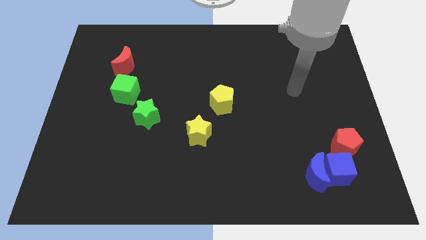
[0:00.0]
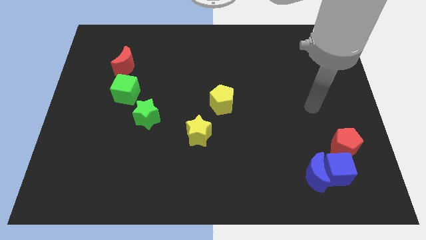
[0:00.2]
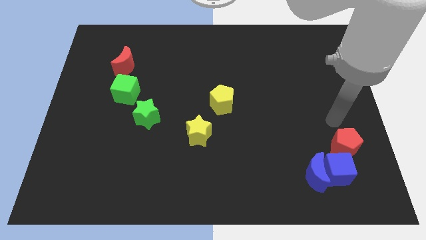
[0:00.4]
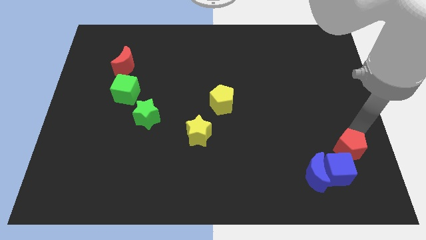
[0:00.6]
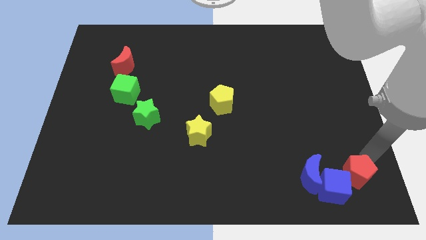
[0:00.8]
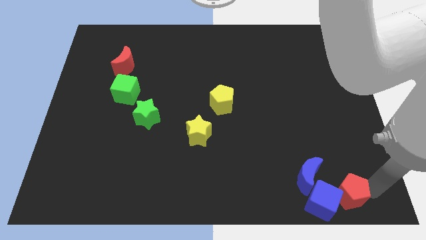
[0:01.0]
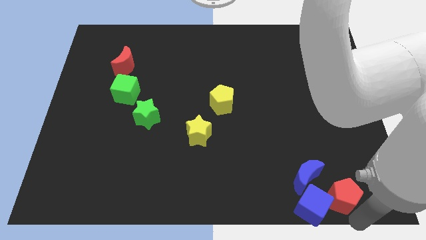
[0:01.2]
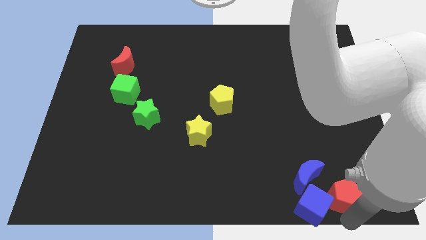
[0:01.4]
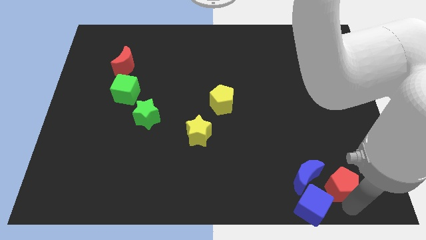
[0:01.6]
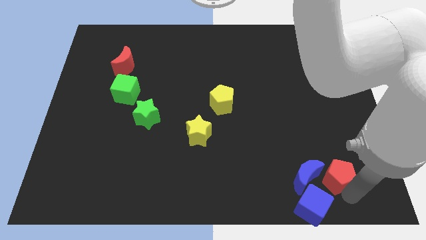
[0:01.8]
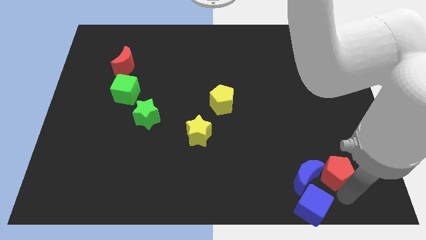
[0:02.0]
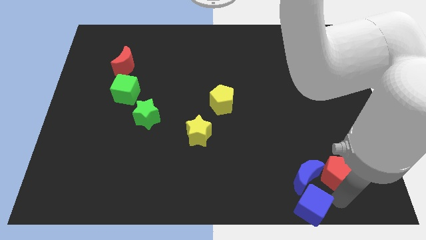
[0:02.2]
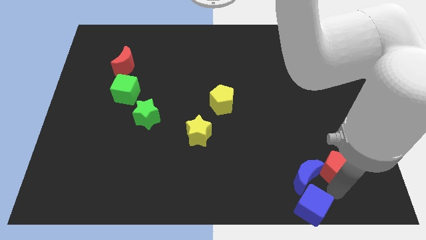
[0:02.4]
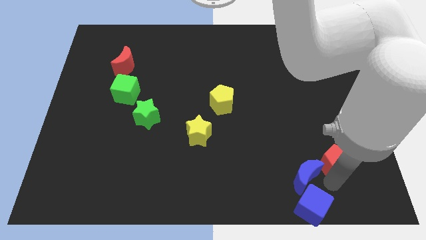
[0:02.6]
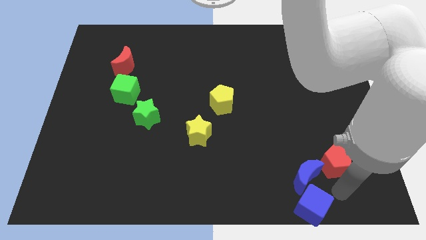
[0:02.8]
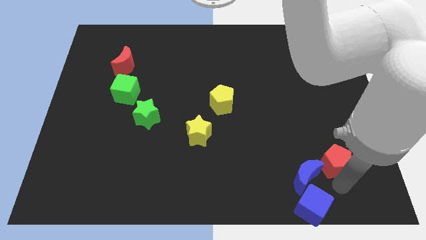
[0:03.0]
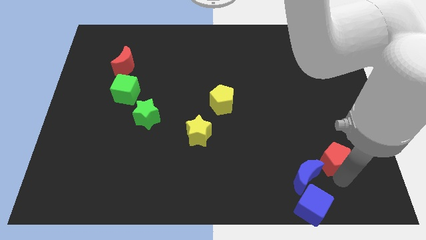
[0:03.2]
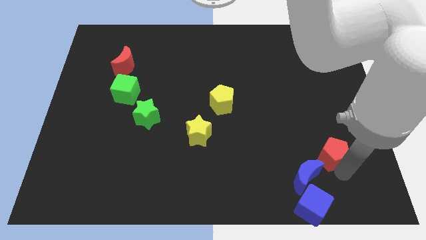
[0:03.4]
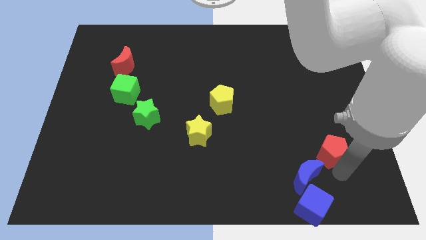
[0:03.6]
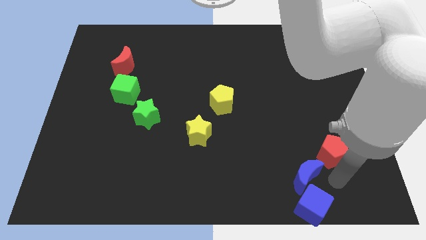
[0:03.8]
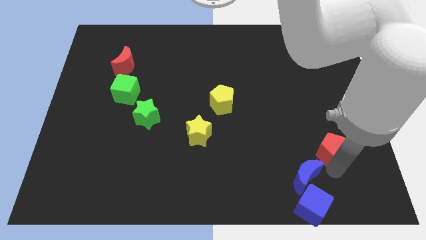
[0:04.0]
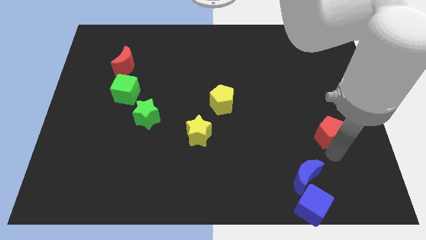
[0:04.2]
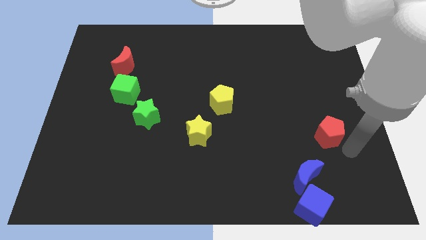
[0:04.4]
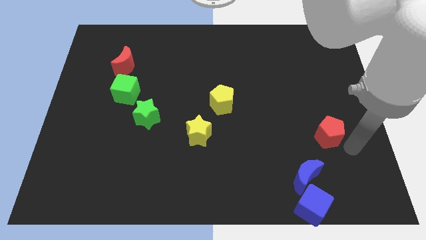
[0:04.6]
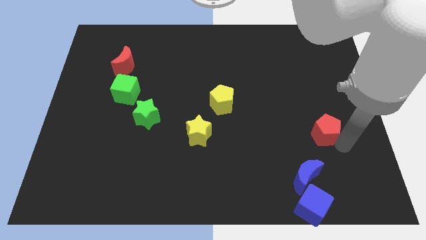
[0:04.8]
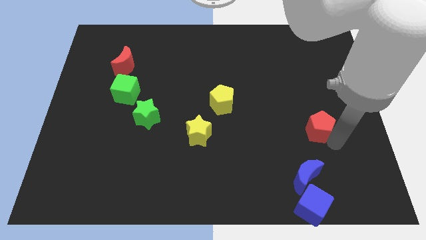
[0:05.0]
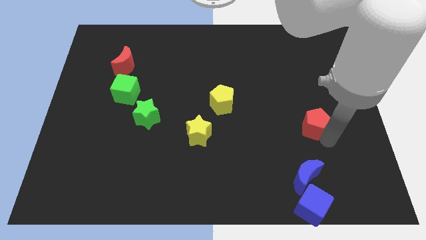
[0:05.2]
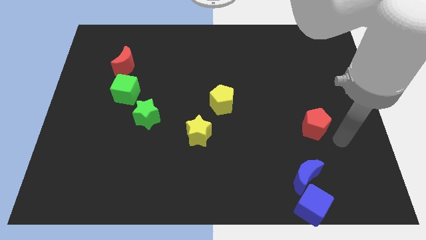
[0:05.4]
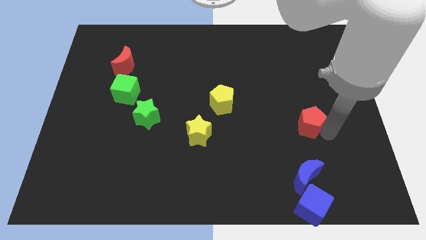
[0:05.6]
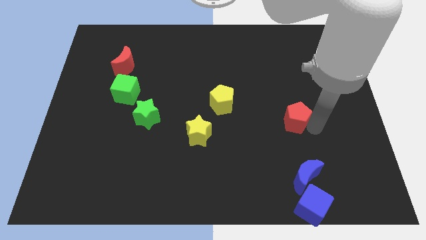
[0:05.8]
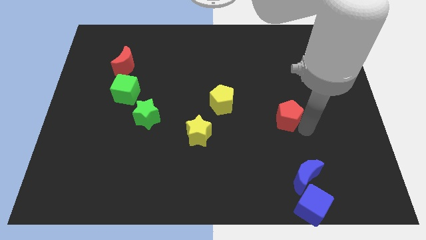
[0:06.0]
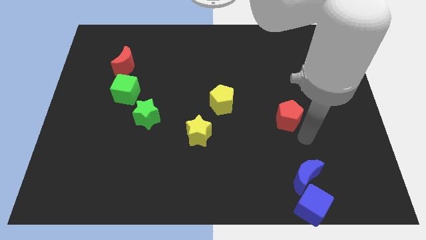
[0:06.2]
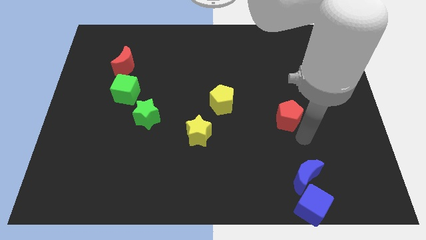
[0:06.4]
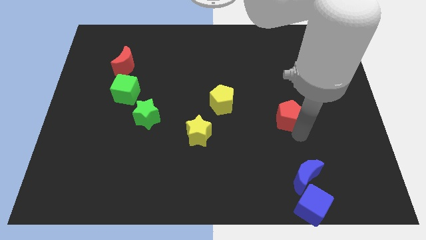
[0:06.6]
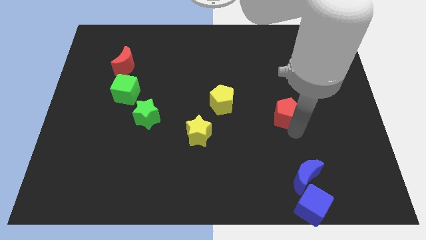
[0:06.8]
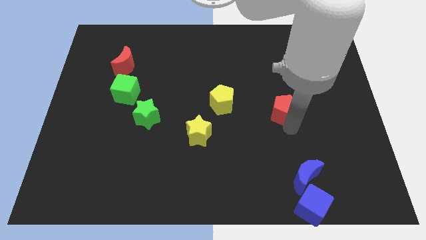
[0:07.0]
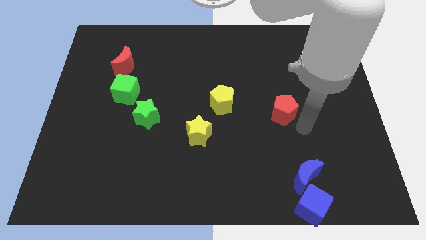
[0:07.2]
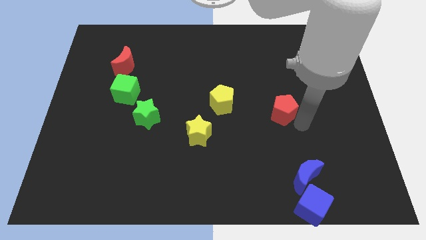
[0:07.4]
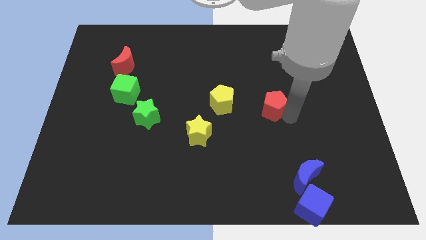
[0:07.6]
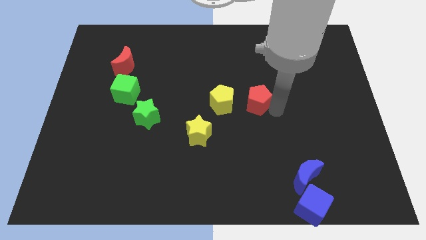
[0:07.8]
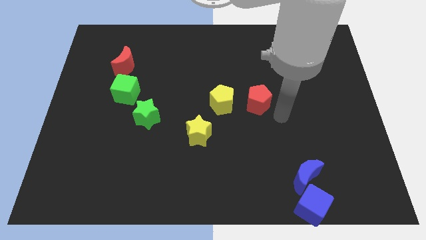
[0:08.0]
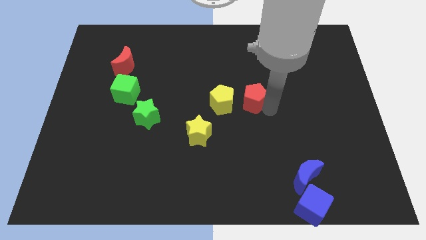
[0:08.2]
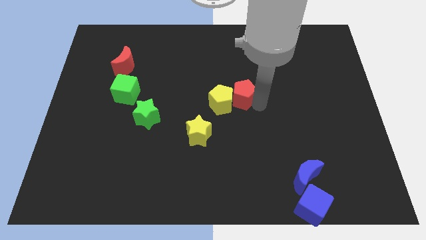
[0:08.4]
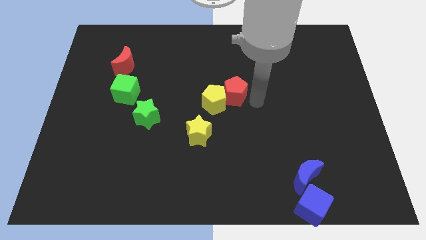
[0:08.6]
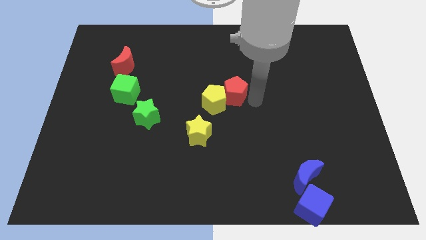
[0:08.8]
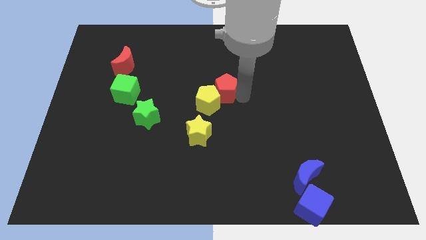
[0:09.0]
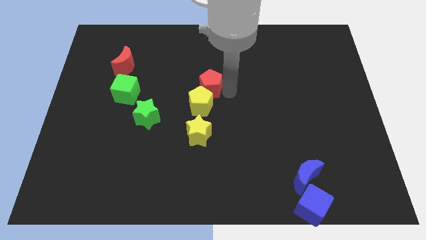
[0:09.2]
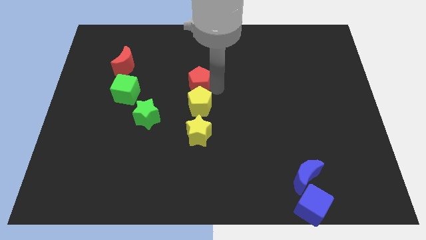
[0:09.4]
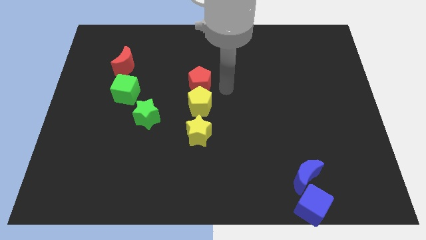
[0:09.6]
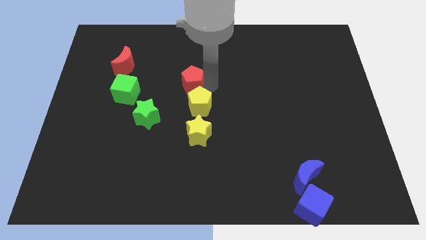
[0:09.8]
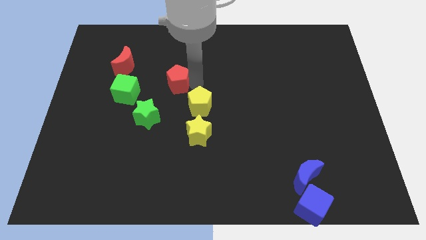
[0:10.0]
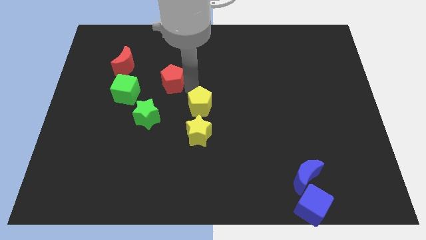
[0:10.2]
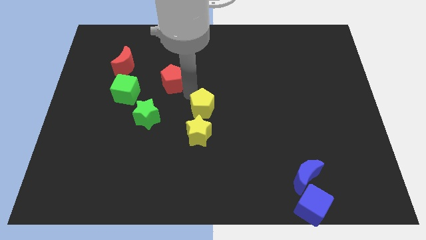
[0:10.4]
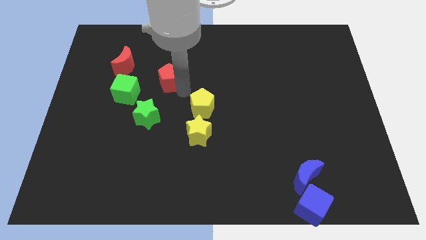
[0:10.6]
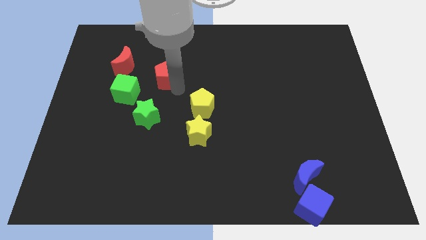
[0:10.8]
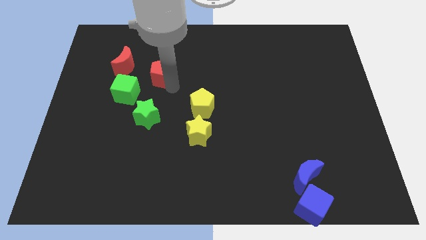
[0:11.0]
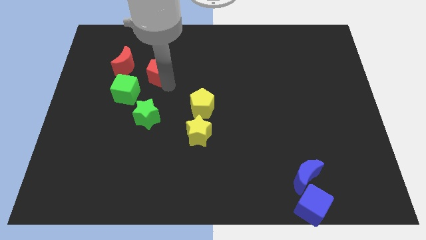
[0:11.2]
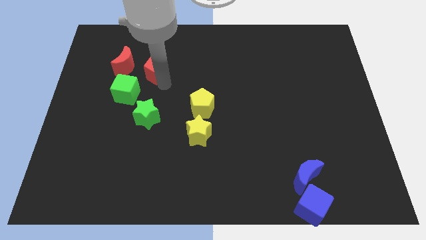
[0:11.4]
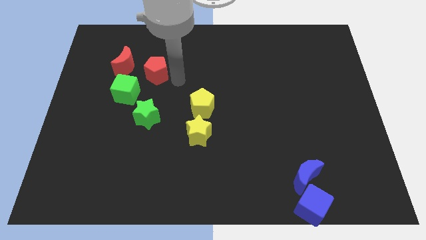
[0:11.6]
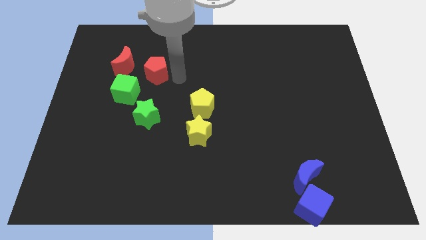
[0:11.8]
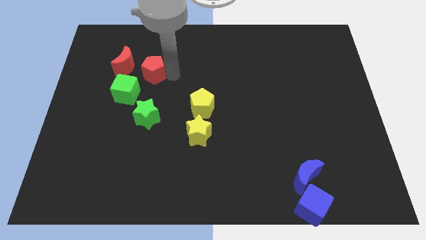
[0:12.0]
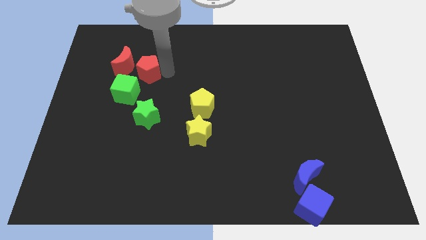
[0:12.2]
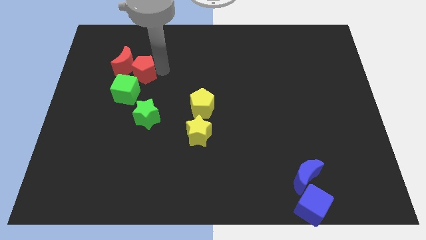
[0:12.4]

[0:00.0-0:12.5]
move the red pentagon to the red moon
